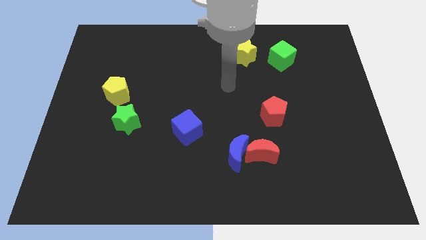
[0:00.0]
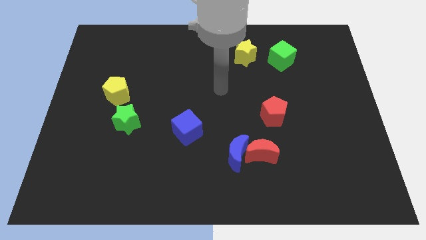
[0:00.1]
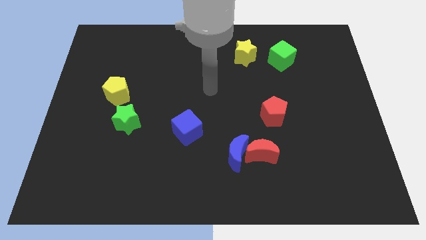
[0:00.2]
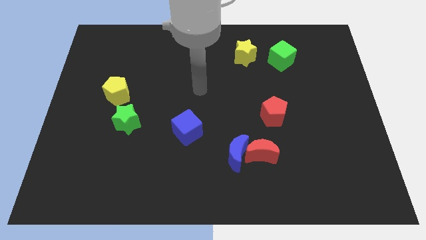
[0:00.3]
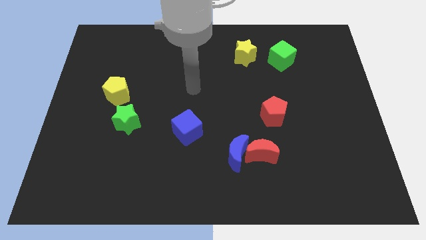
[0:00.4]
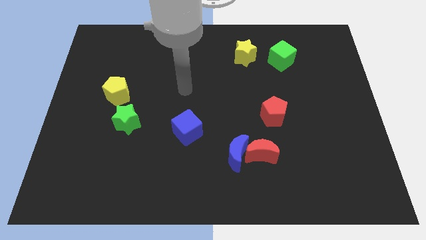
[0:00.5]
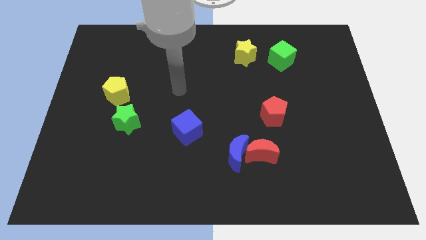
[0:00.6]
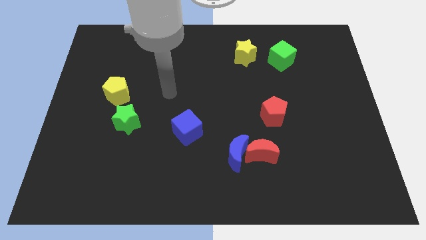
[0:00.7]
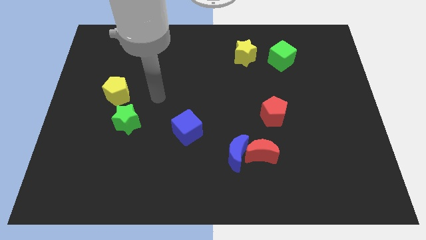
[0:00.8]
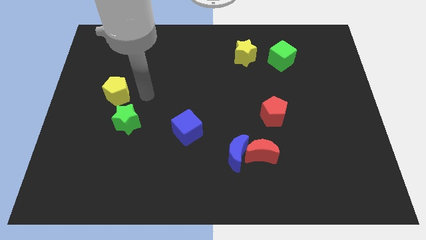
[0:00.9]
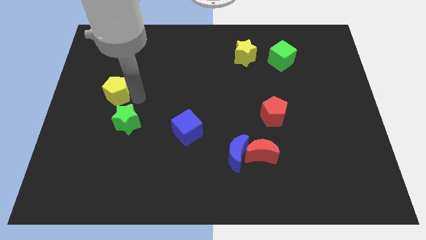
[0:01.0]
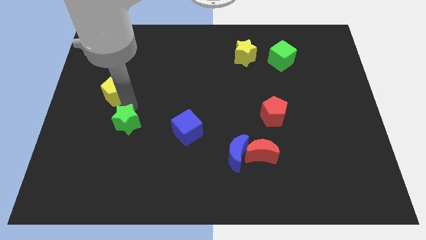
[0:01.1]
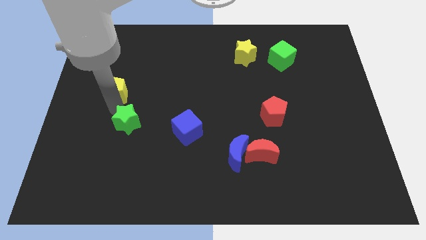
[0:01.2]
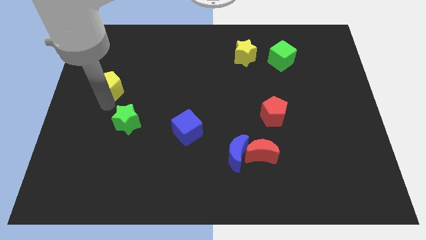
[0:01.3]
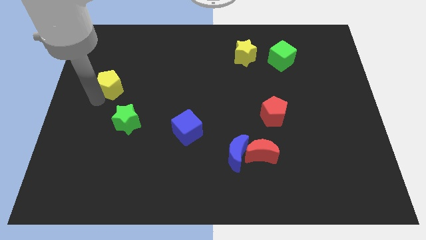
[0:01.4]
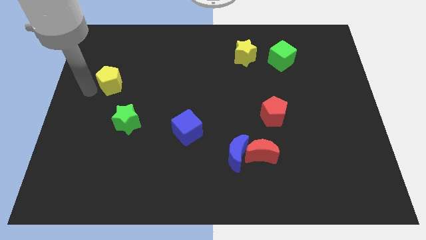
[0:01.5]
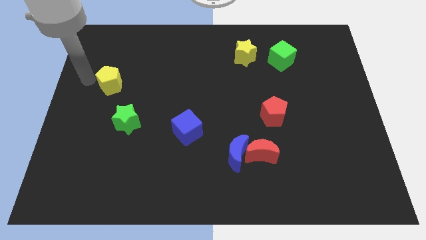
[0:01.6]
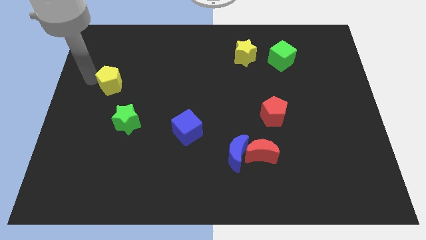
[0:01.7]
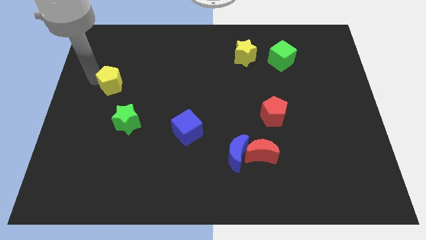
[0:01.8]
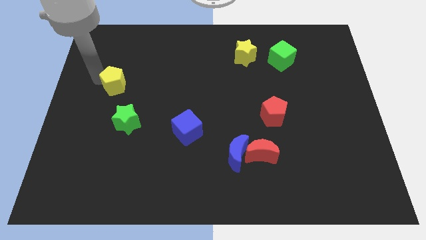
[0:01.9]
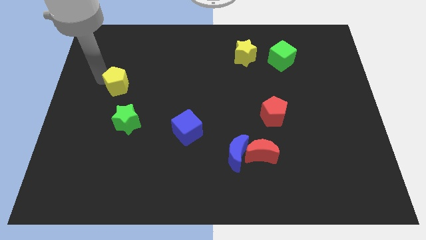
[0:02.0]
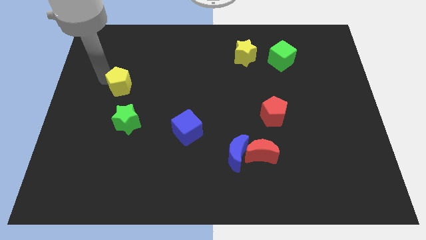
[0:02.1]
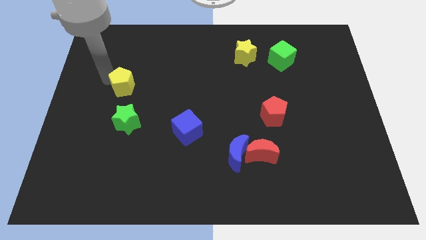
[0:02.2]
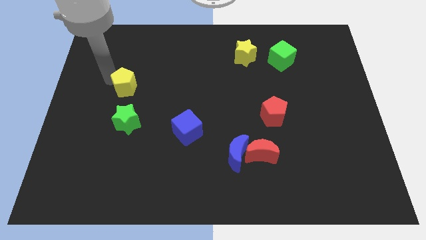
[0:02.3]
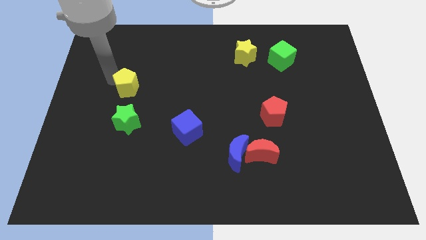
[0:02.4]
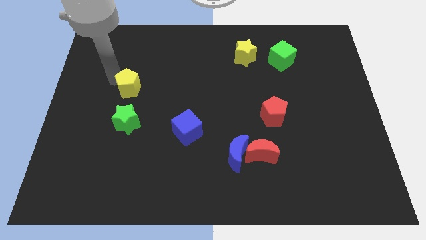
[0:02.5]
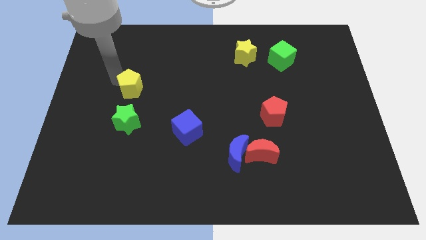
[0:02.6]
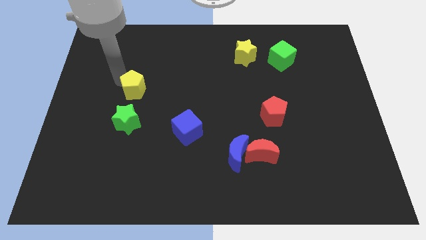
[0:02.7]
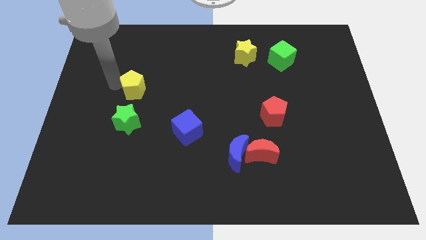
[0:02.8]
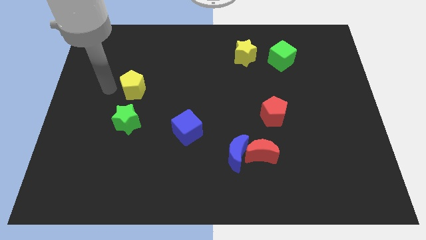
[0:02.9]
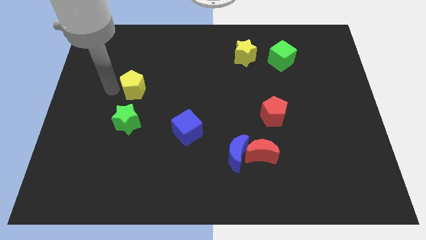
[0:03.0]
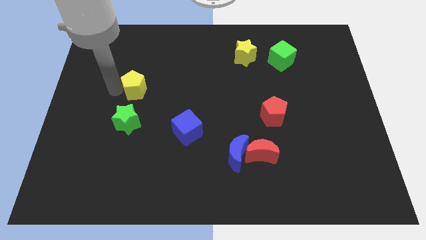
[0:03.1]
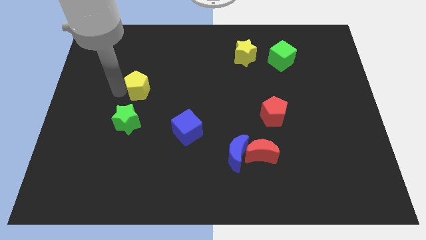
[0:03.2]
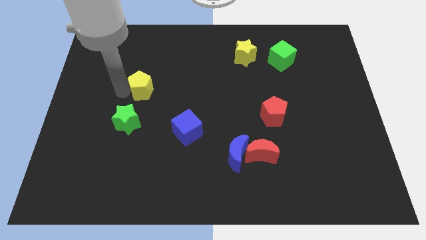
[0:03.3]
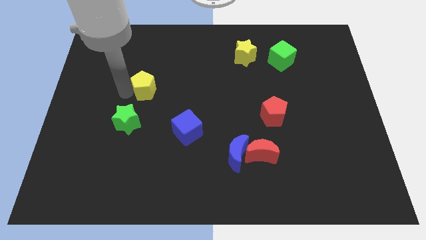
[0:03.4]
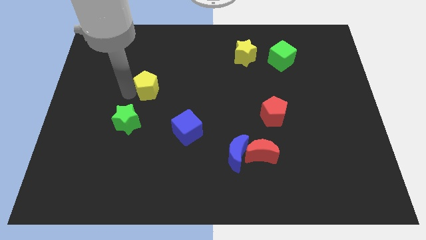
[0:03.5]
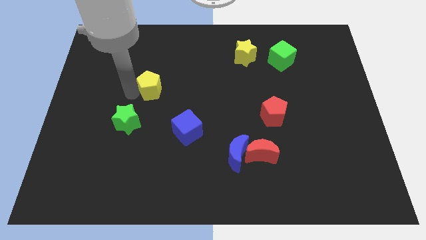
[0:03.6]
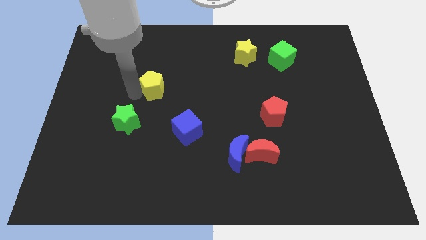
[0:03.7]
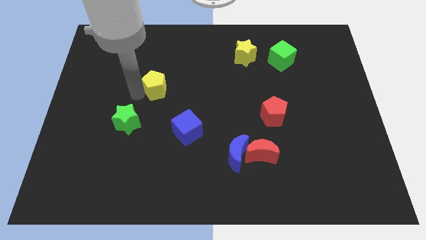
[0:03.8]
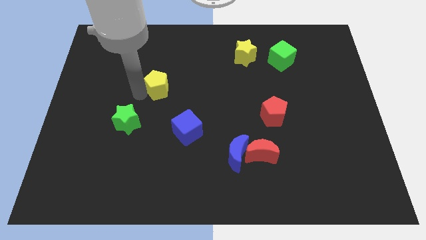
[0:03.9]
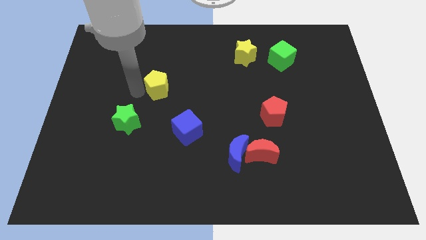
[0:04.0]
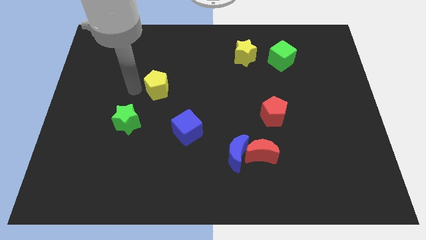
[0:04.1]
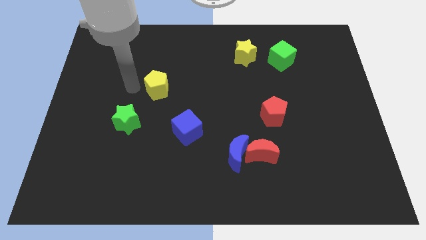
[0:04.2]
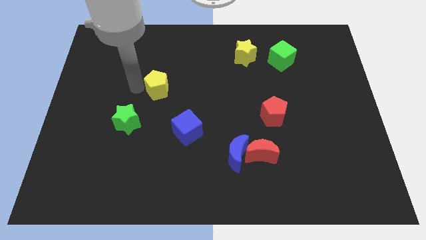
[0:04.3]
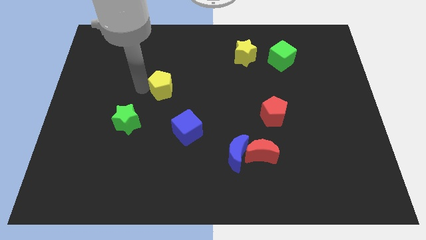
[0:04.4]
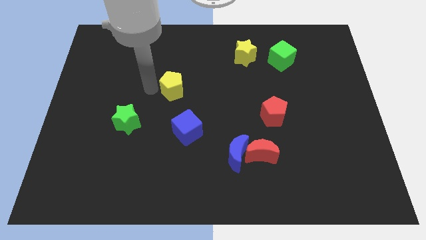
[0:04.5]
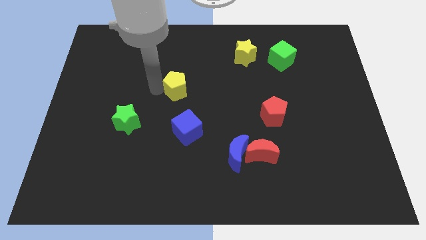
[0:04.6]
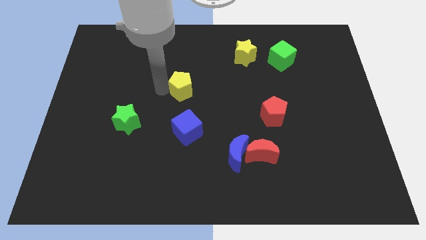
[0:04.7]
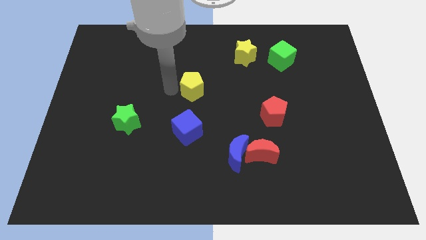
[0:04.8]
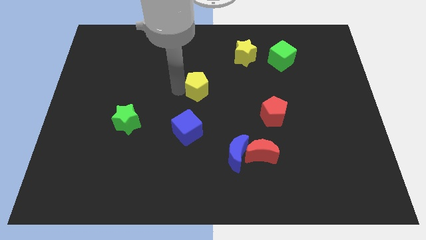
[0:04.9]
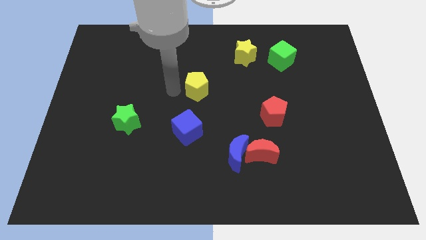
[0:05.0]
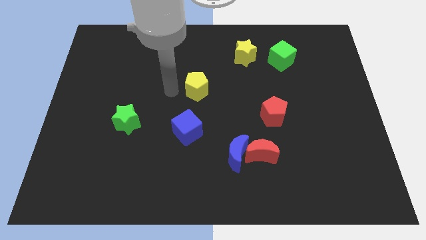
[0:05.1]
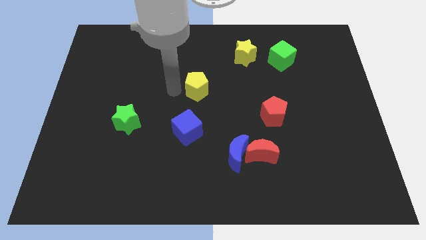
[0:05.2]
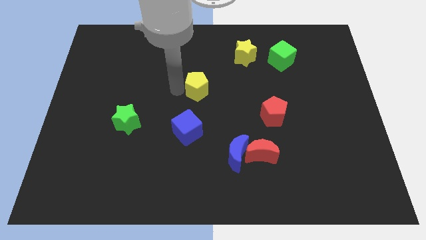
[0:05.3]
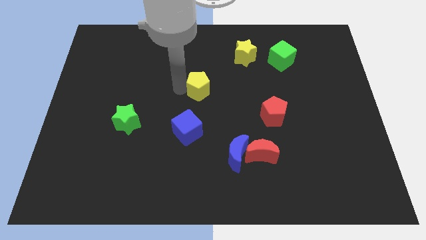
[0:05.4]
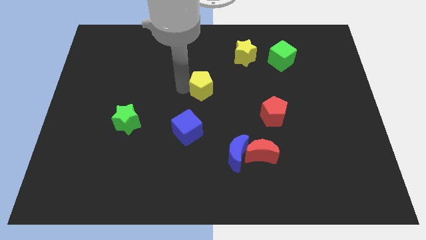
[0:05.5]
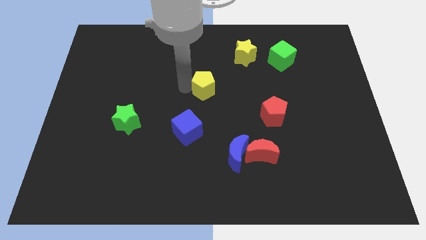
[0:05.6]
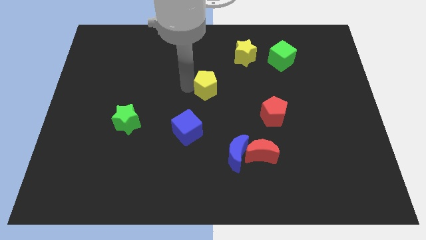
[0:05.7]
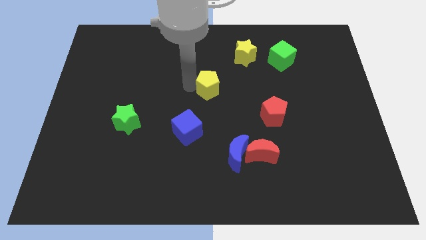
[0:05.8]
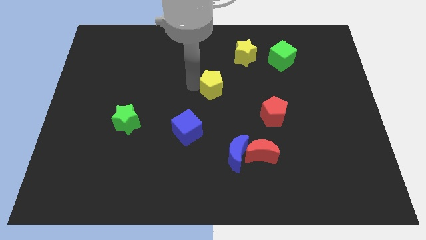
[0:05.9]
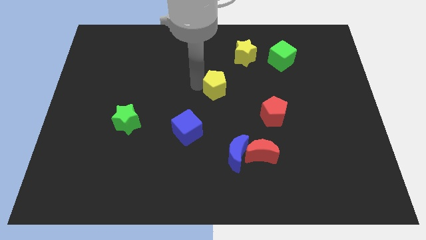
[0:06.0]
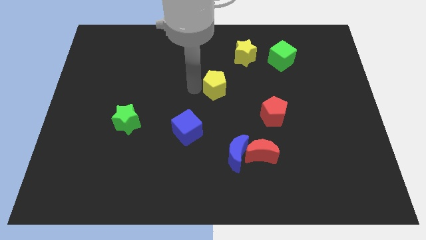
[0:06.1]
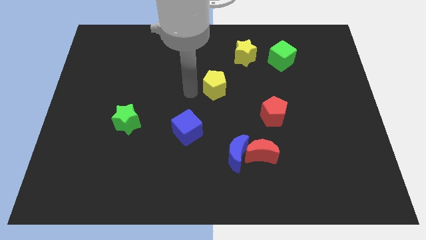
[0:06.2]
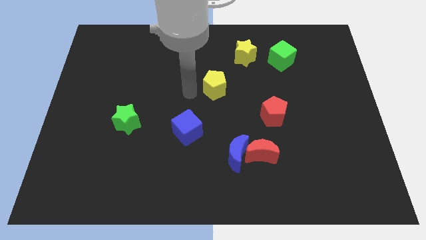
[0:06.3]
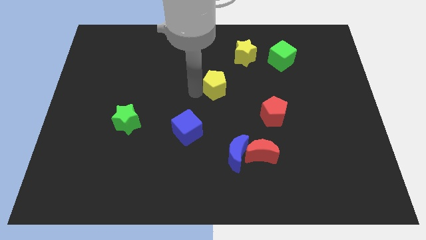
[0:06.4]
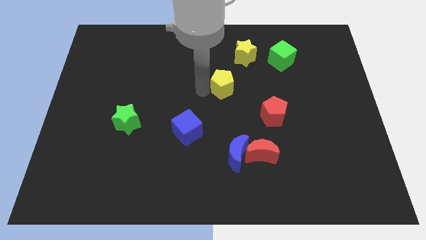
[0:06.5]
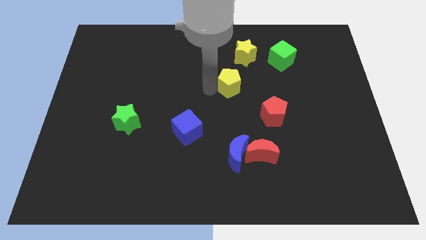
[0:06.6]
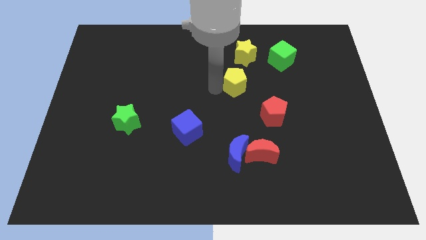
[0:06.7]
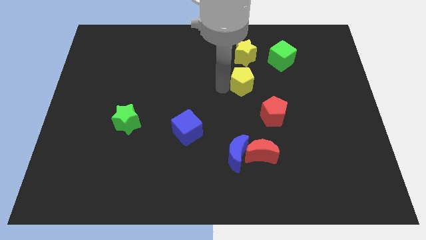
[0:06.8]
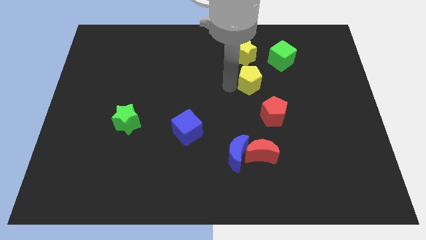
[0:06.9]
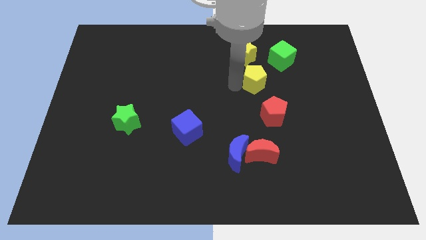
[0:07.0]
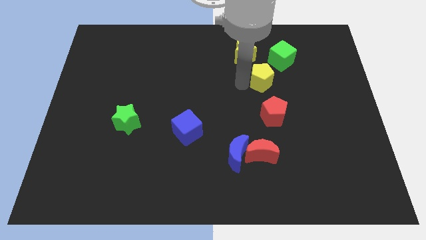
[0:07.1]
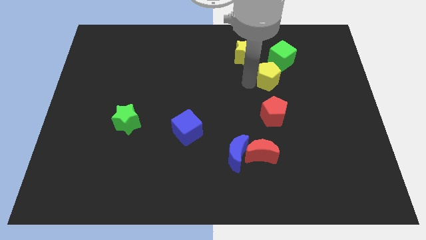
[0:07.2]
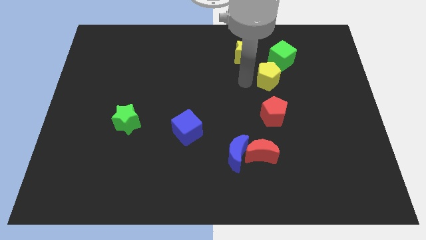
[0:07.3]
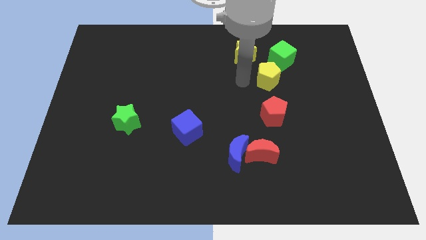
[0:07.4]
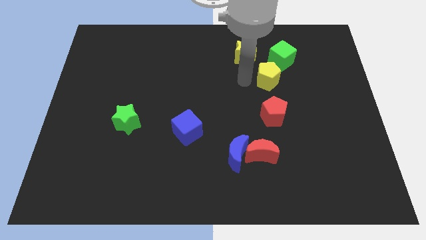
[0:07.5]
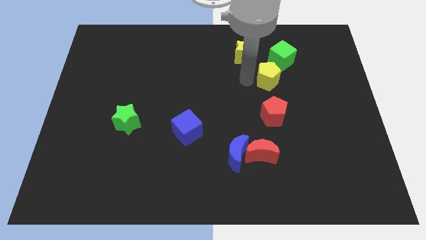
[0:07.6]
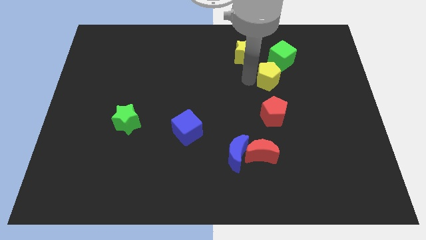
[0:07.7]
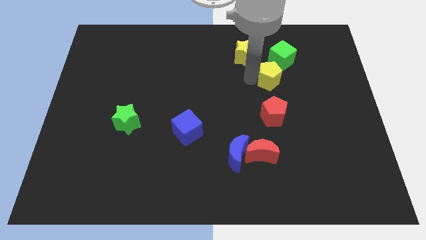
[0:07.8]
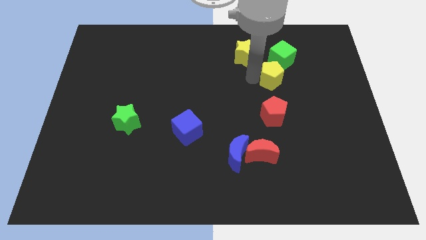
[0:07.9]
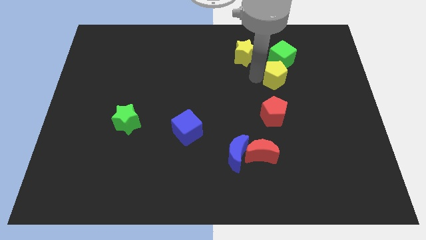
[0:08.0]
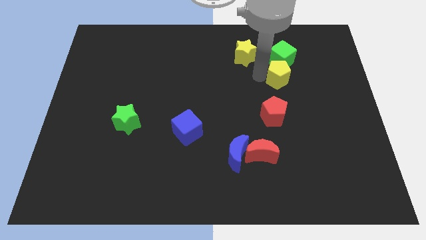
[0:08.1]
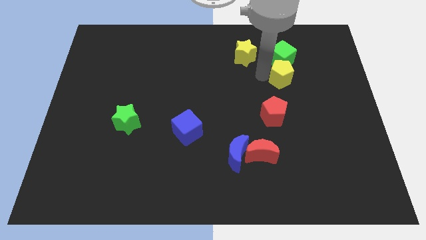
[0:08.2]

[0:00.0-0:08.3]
push the yellow pentagon diagonally down and to the right of the green cube
